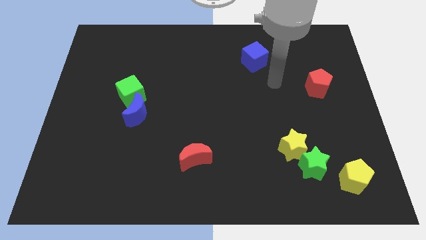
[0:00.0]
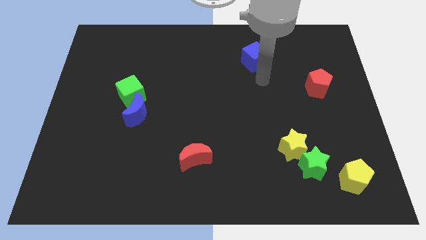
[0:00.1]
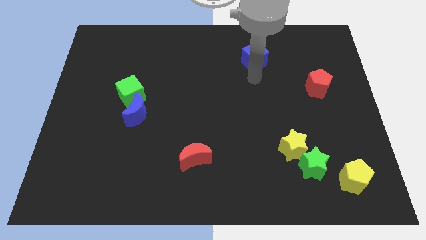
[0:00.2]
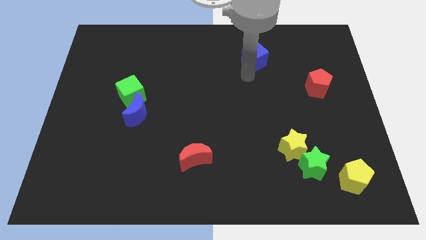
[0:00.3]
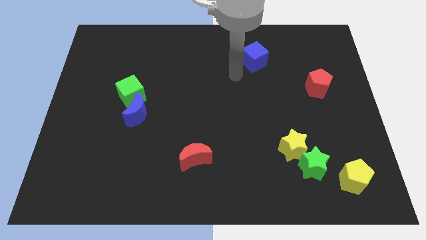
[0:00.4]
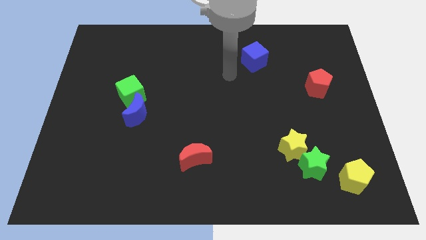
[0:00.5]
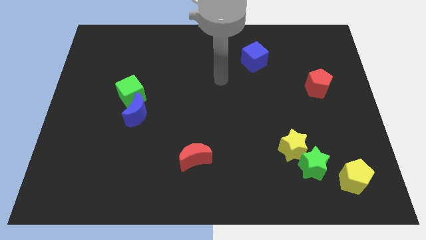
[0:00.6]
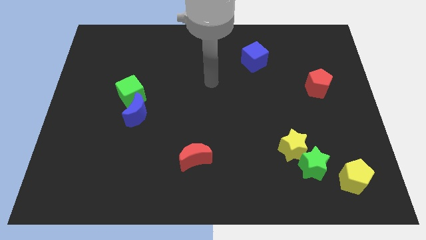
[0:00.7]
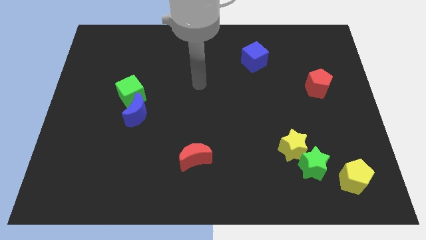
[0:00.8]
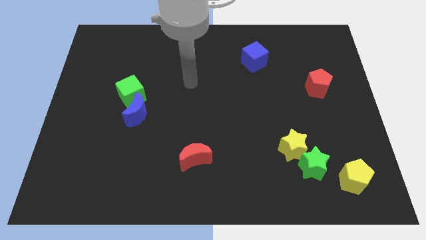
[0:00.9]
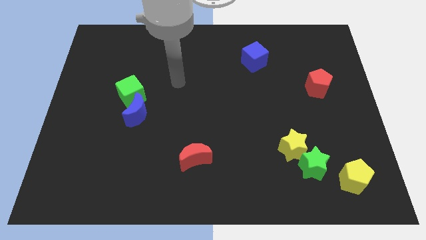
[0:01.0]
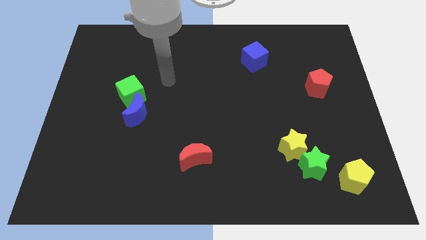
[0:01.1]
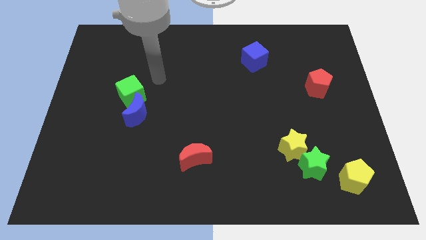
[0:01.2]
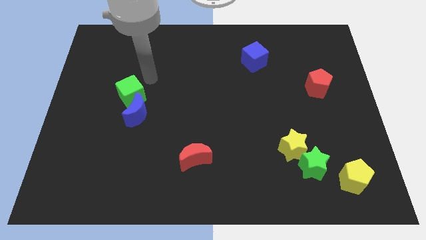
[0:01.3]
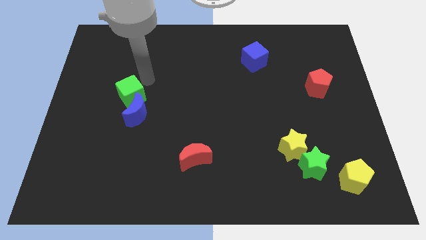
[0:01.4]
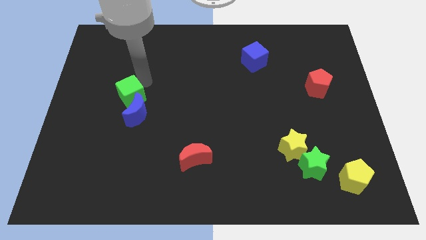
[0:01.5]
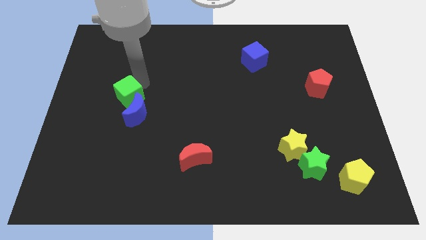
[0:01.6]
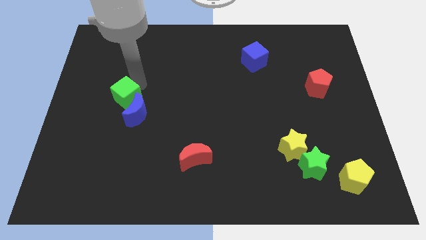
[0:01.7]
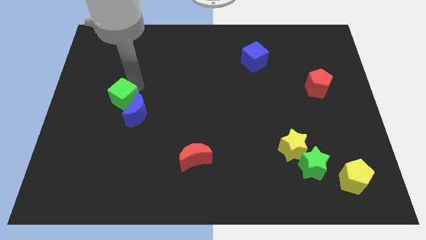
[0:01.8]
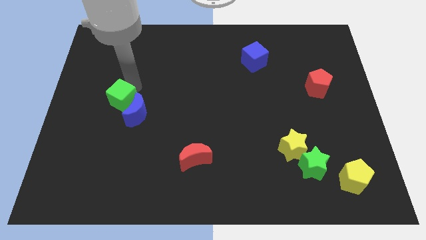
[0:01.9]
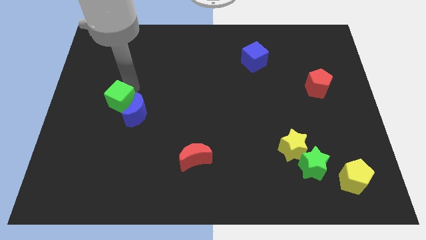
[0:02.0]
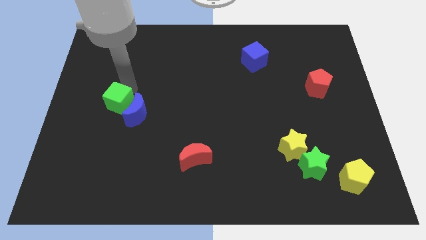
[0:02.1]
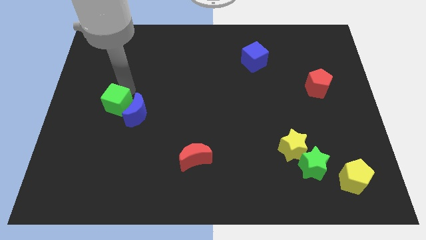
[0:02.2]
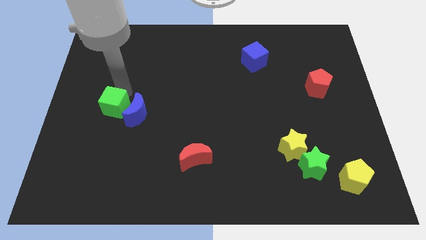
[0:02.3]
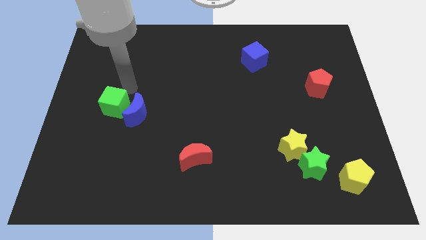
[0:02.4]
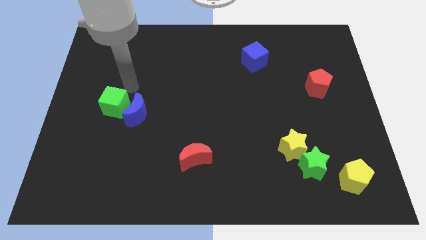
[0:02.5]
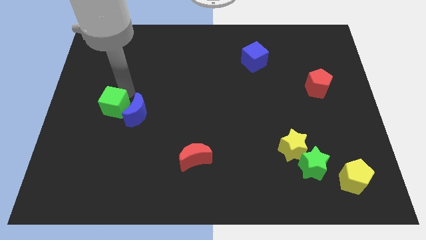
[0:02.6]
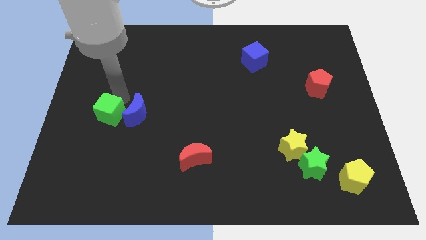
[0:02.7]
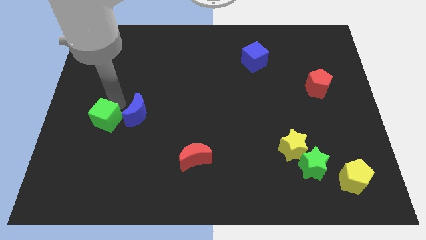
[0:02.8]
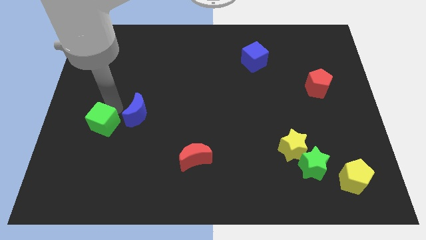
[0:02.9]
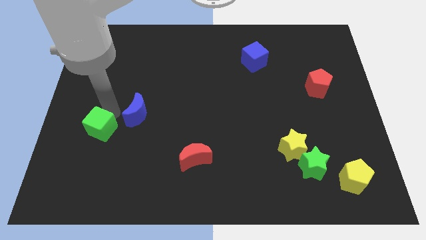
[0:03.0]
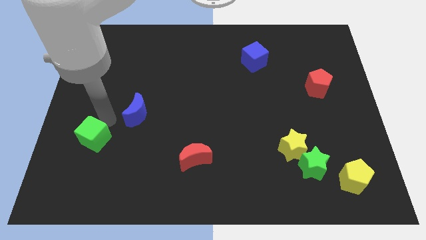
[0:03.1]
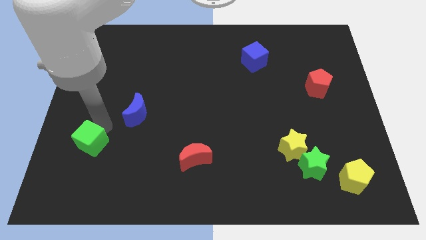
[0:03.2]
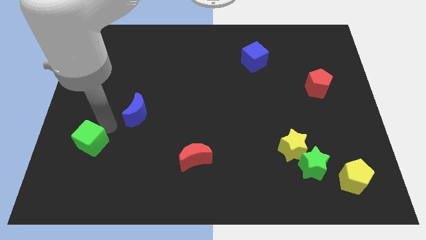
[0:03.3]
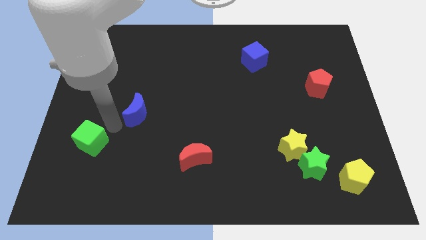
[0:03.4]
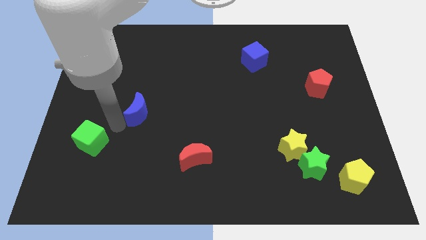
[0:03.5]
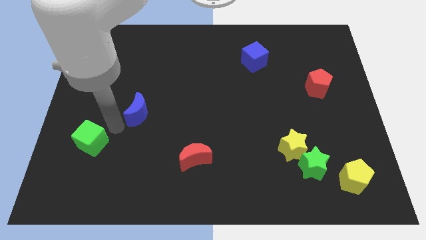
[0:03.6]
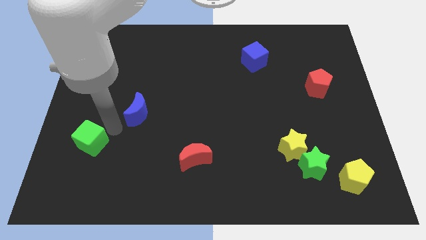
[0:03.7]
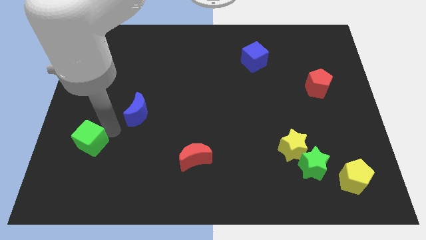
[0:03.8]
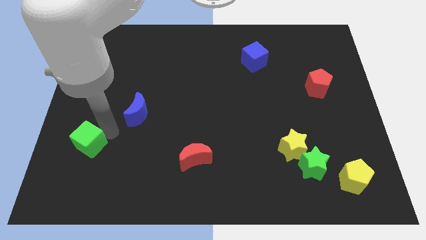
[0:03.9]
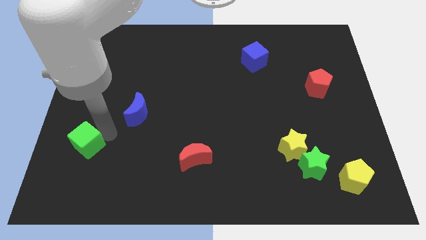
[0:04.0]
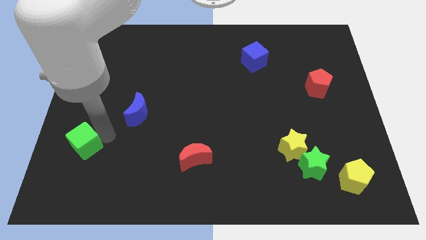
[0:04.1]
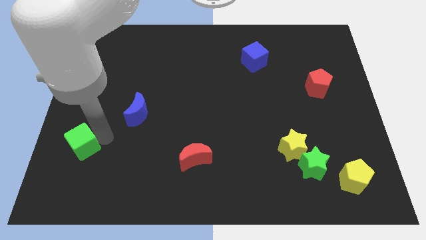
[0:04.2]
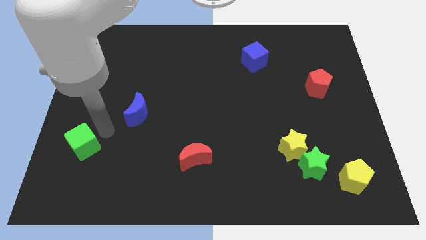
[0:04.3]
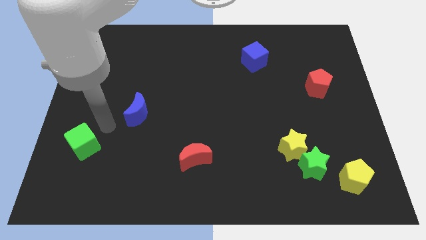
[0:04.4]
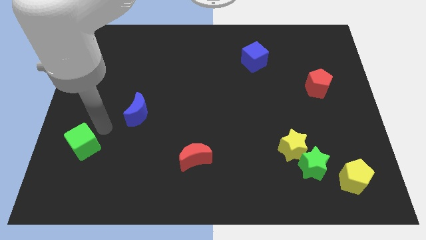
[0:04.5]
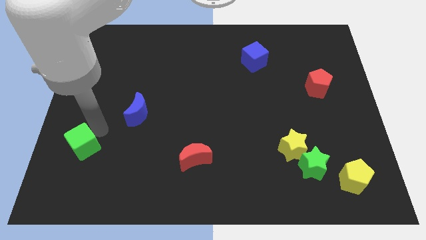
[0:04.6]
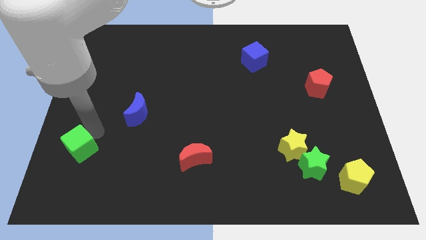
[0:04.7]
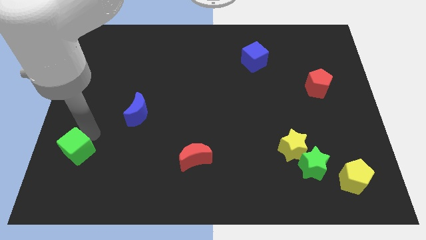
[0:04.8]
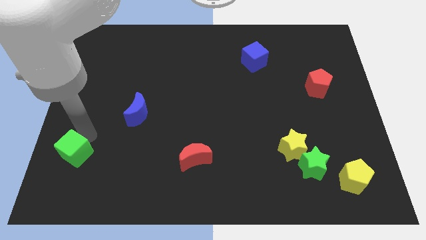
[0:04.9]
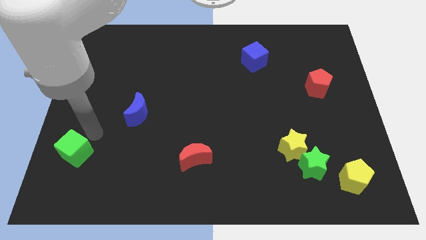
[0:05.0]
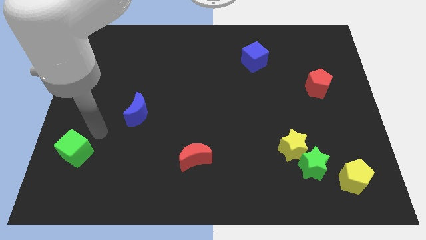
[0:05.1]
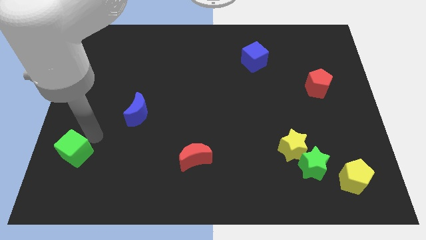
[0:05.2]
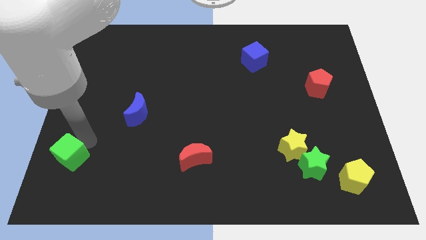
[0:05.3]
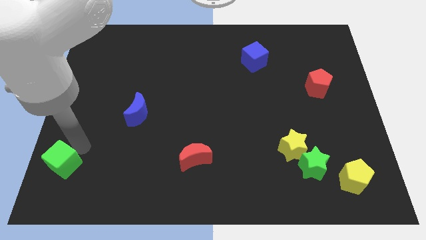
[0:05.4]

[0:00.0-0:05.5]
put the green cube to the lower left corner

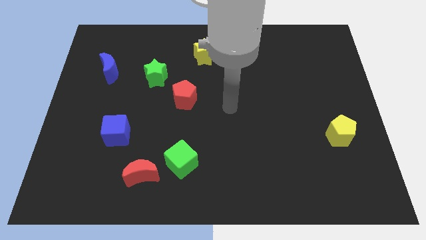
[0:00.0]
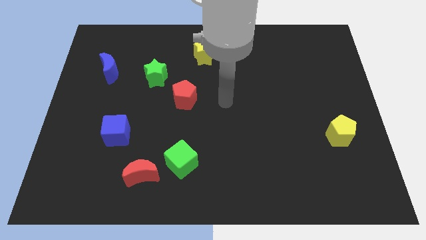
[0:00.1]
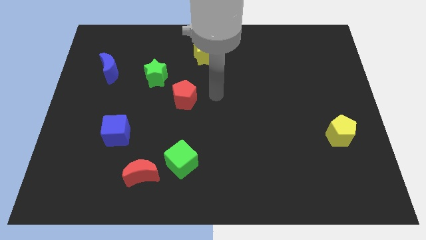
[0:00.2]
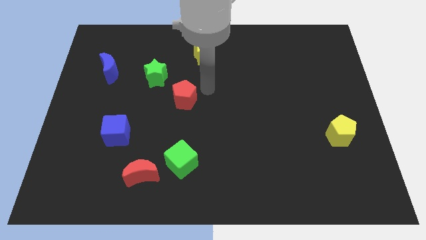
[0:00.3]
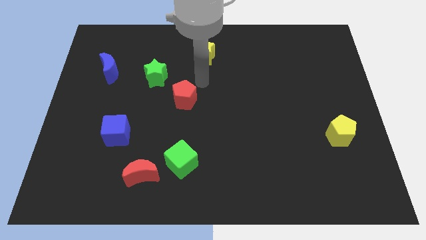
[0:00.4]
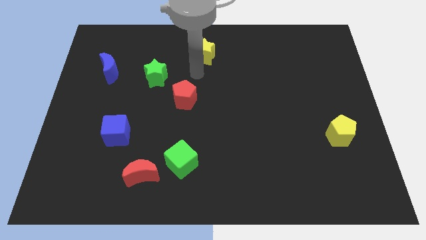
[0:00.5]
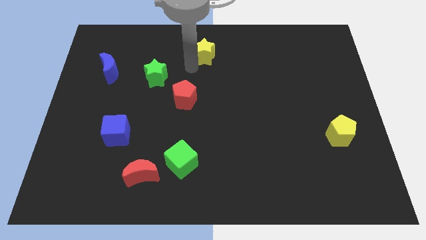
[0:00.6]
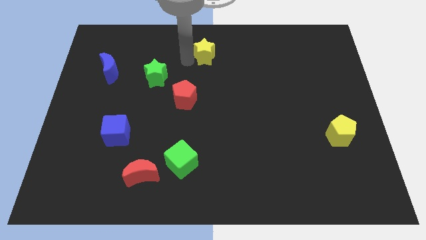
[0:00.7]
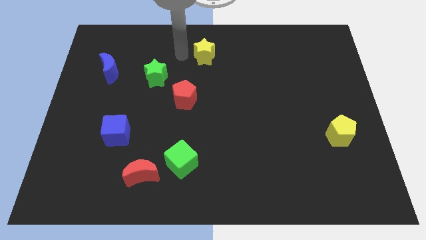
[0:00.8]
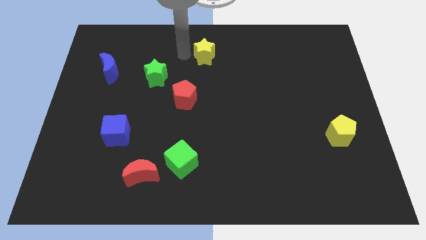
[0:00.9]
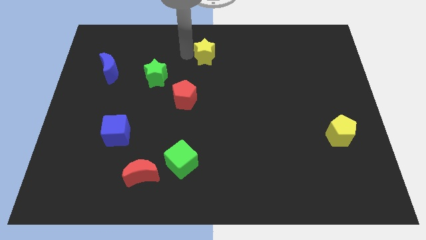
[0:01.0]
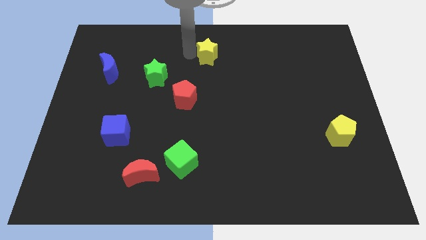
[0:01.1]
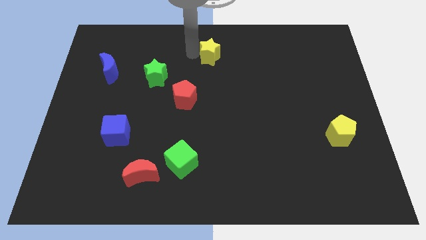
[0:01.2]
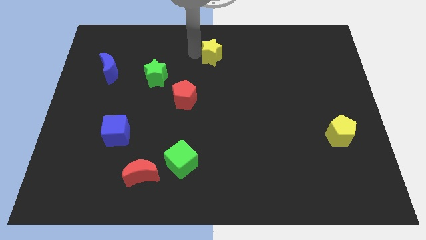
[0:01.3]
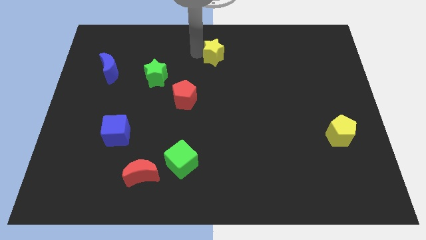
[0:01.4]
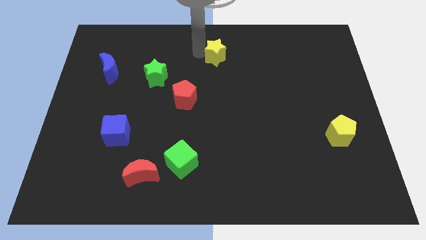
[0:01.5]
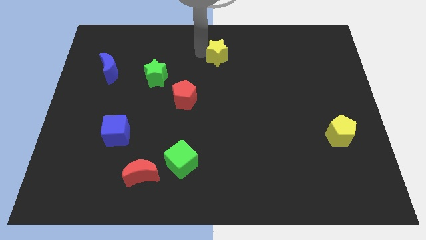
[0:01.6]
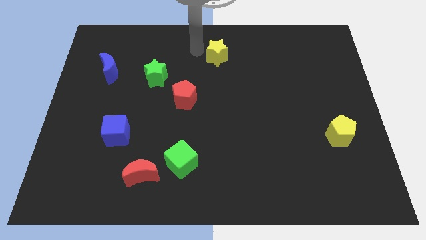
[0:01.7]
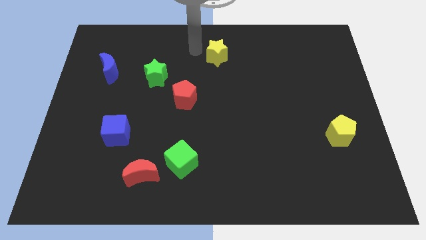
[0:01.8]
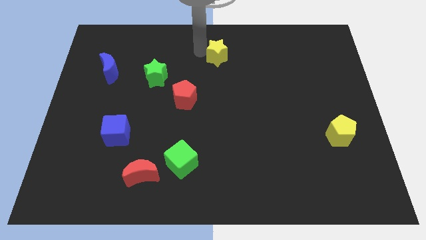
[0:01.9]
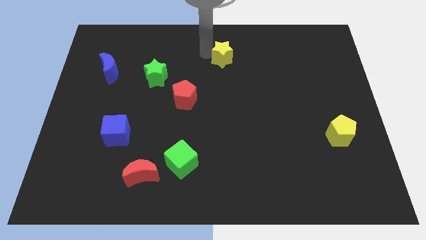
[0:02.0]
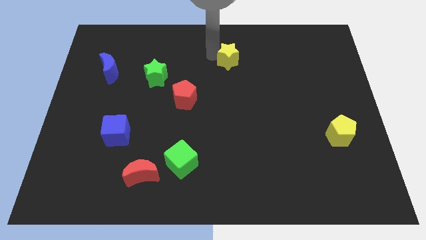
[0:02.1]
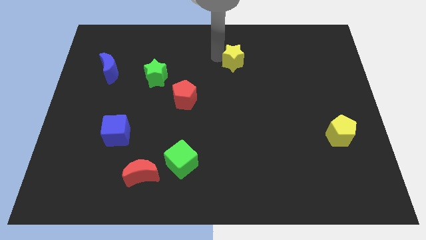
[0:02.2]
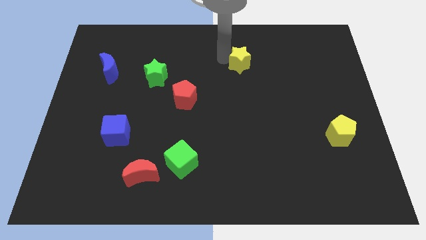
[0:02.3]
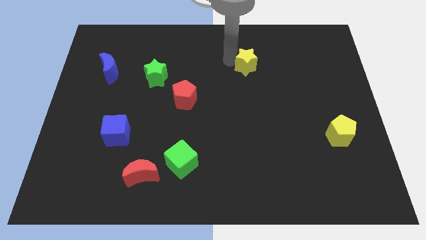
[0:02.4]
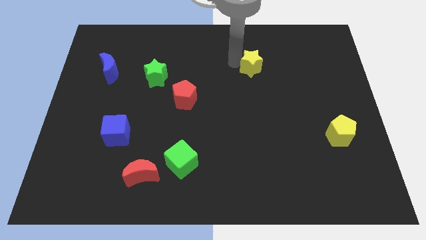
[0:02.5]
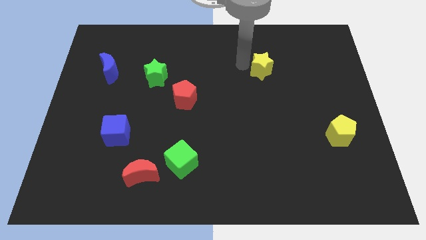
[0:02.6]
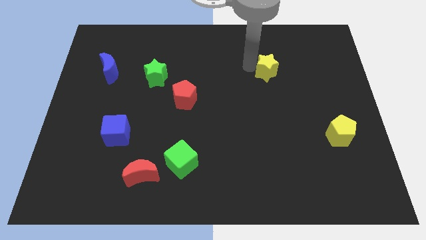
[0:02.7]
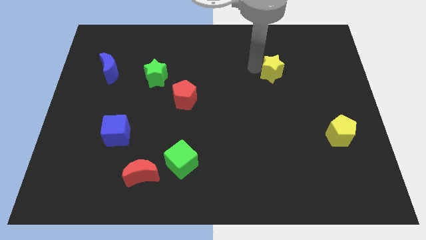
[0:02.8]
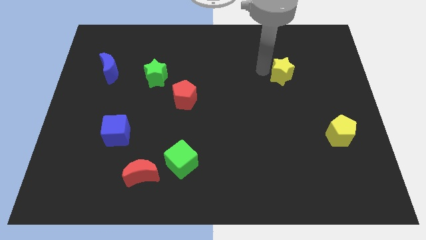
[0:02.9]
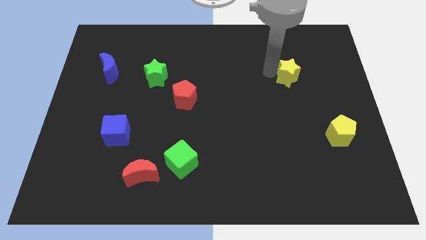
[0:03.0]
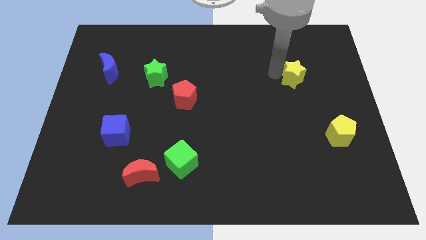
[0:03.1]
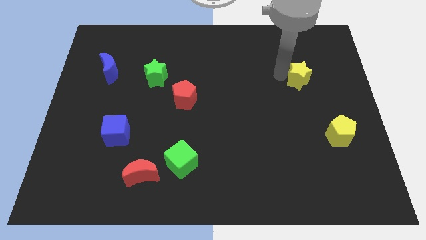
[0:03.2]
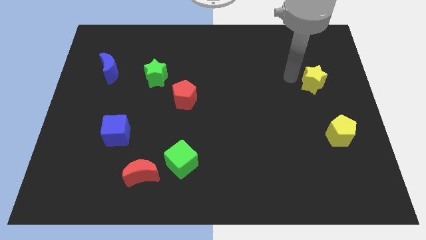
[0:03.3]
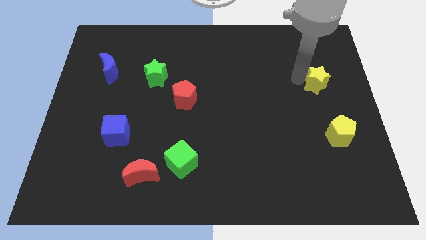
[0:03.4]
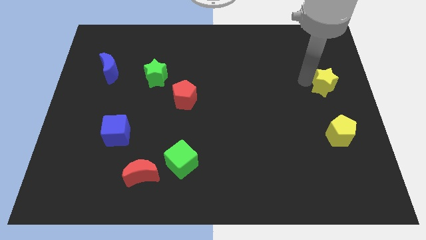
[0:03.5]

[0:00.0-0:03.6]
slide the yellow star to the center right
